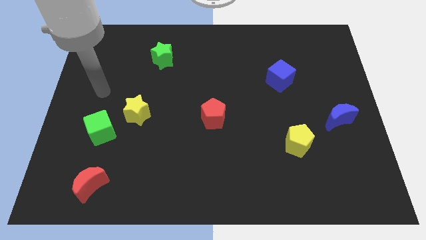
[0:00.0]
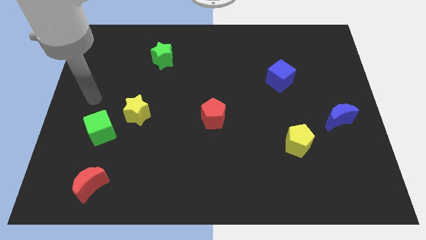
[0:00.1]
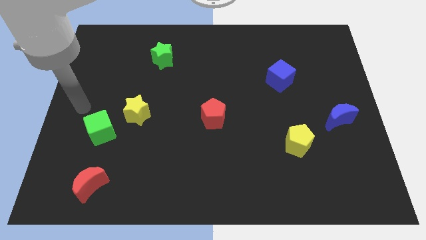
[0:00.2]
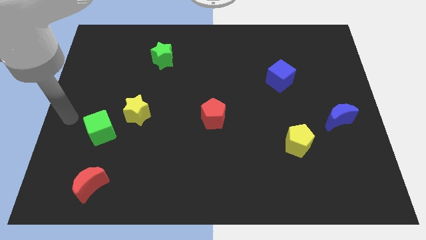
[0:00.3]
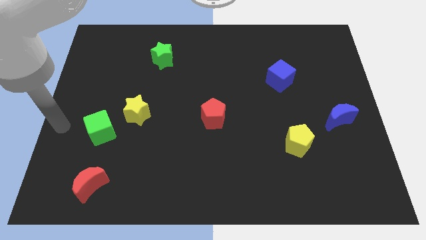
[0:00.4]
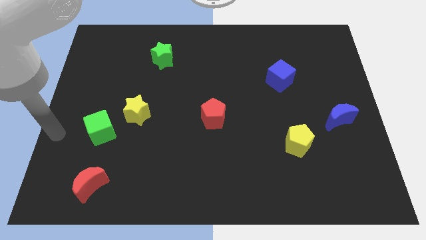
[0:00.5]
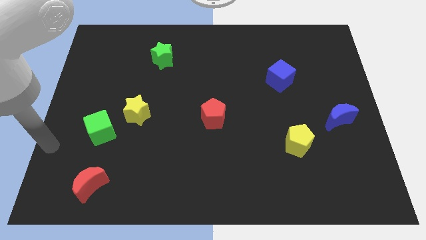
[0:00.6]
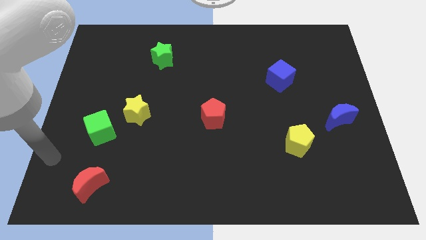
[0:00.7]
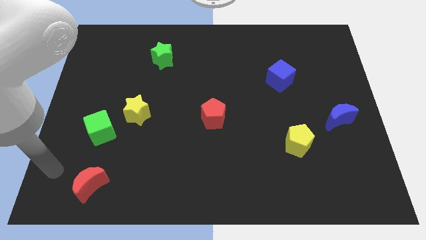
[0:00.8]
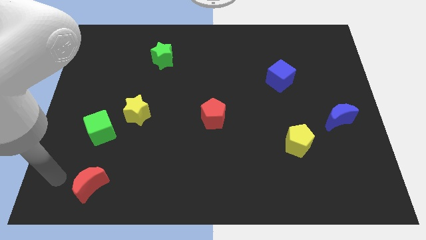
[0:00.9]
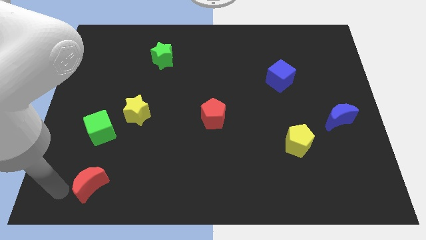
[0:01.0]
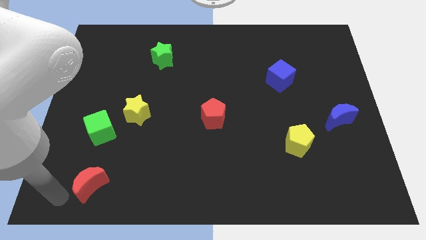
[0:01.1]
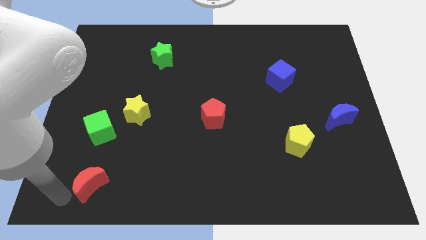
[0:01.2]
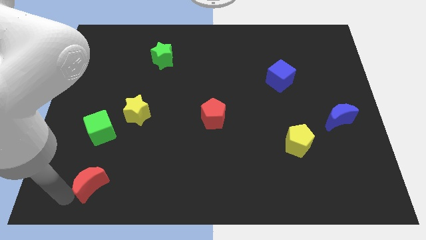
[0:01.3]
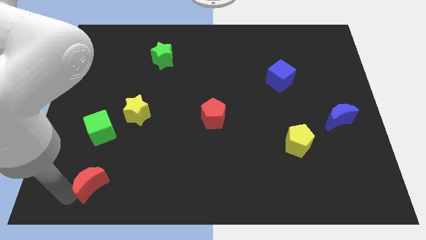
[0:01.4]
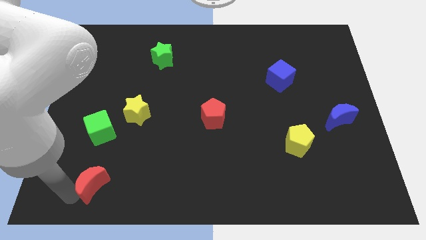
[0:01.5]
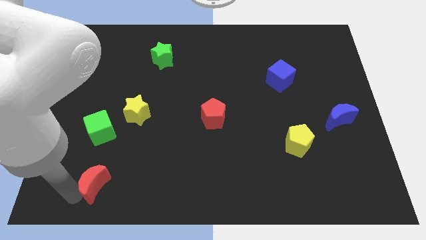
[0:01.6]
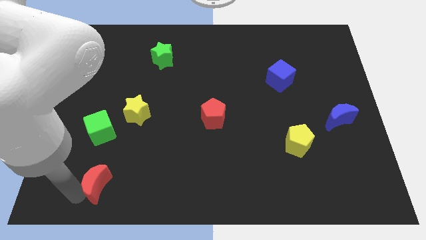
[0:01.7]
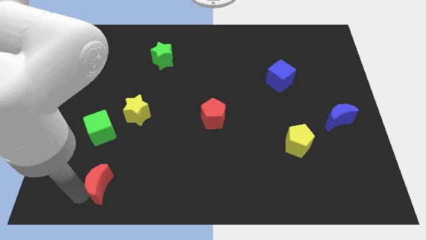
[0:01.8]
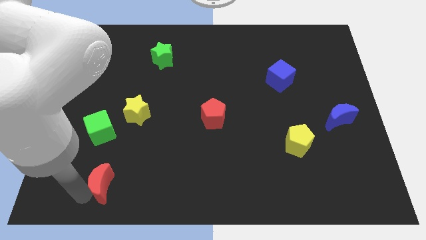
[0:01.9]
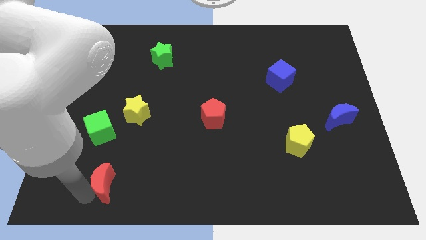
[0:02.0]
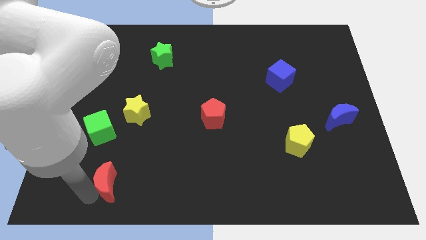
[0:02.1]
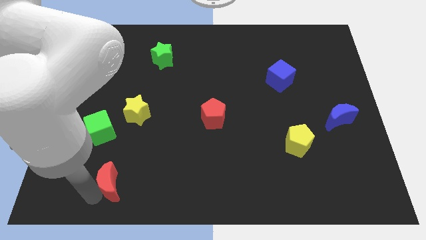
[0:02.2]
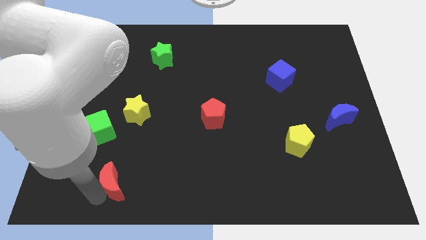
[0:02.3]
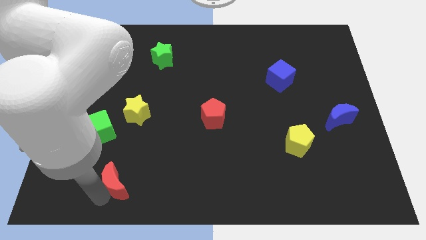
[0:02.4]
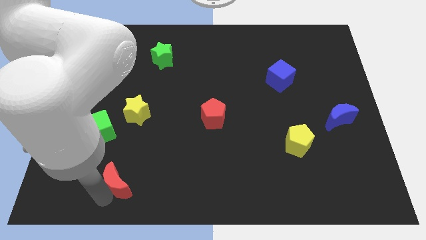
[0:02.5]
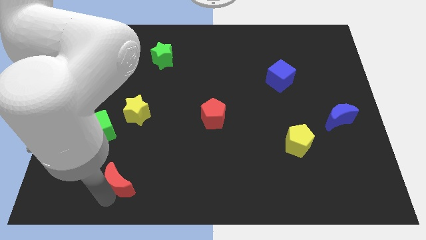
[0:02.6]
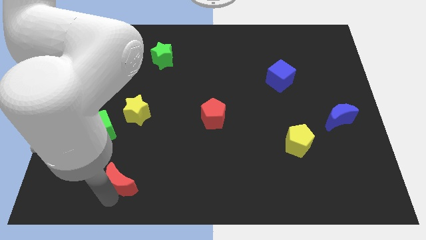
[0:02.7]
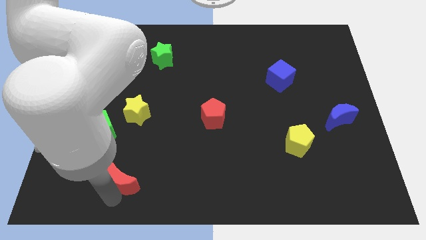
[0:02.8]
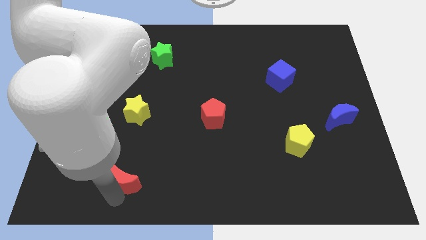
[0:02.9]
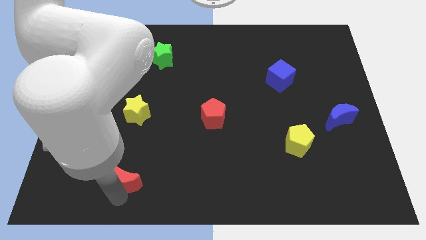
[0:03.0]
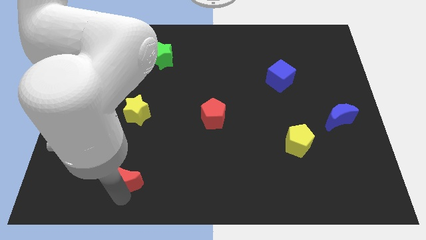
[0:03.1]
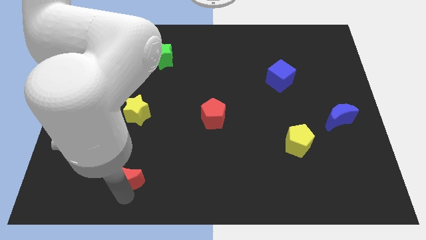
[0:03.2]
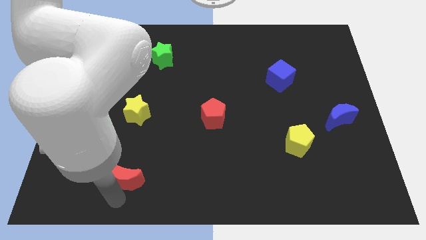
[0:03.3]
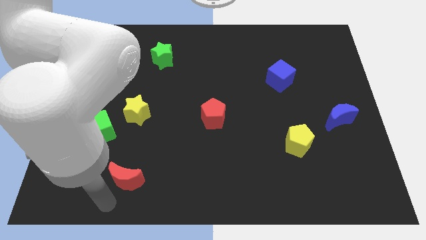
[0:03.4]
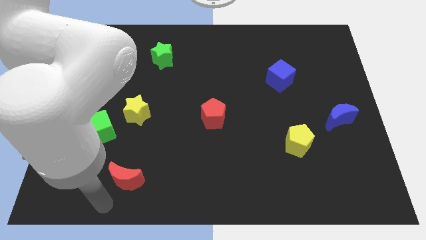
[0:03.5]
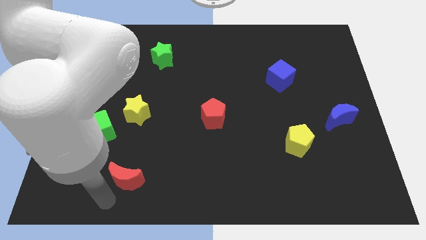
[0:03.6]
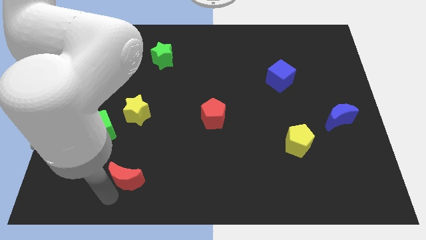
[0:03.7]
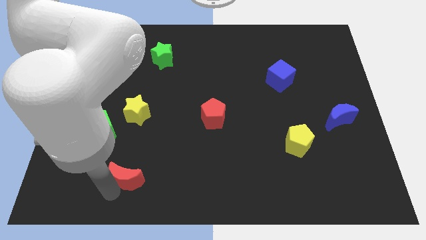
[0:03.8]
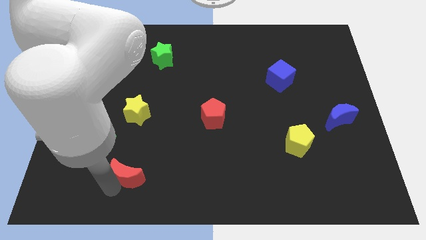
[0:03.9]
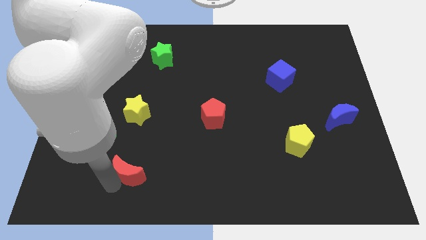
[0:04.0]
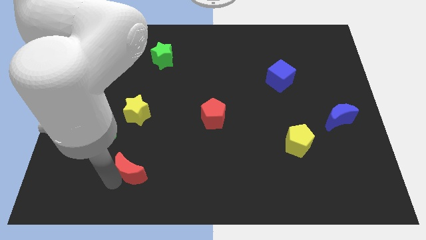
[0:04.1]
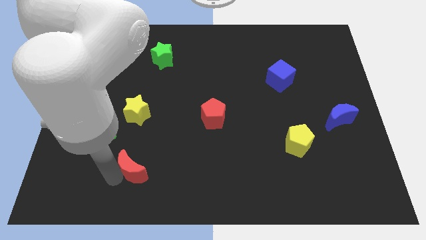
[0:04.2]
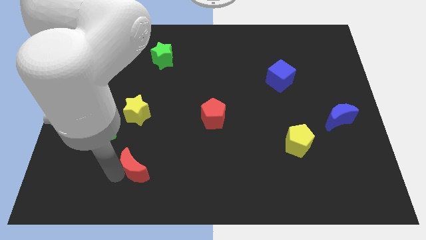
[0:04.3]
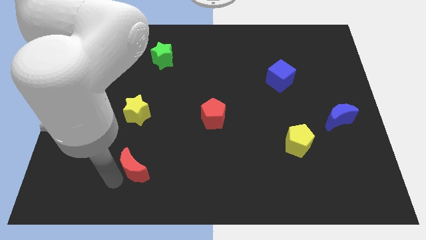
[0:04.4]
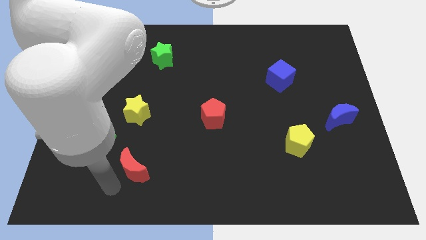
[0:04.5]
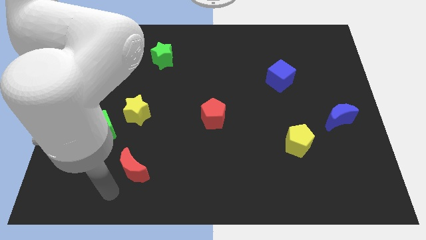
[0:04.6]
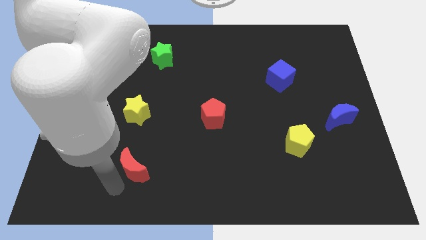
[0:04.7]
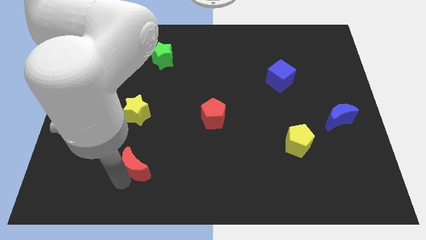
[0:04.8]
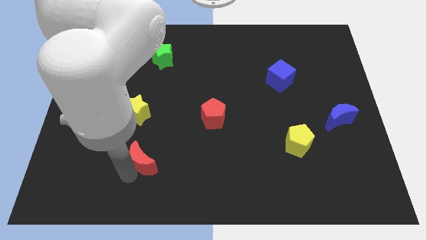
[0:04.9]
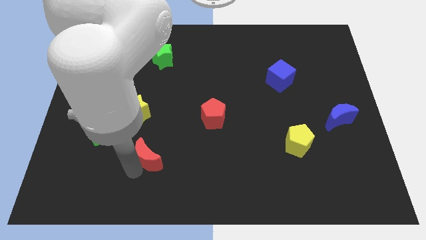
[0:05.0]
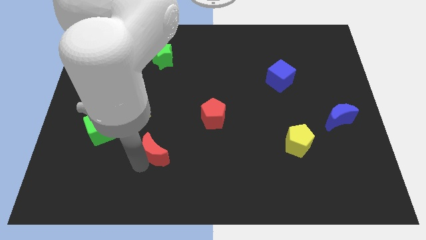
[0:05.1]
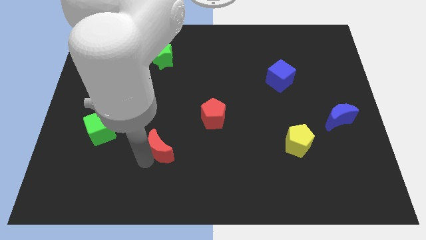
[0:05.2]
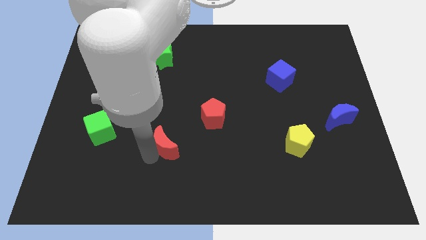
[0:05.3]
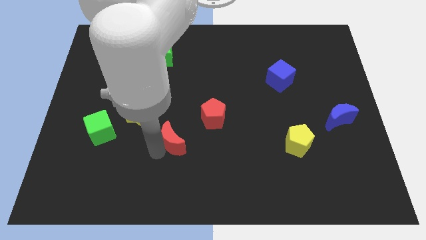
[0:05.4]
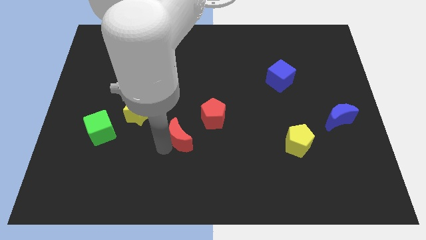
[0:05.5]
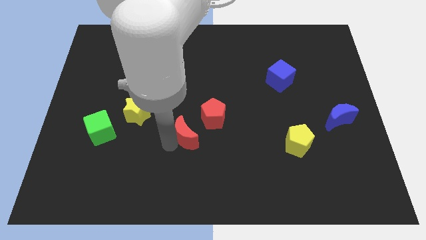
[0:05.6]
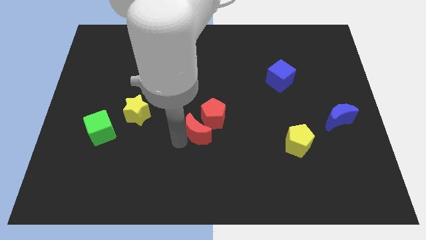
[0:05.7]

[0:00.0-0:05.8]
move the red moon to the red pentagon

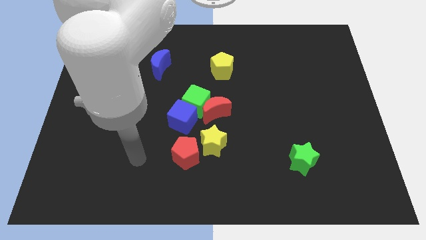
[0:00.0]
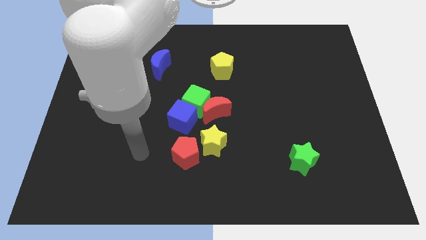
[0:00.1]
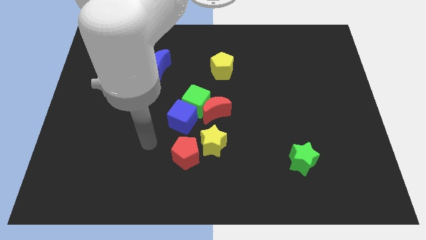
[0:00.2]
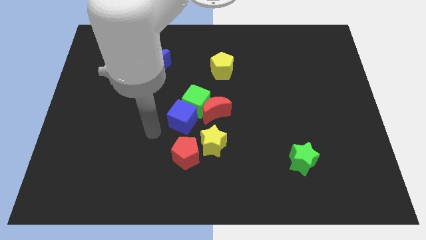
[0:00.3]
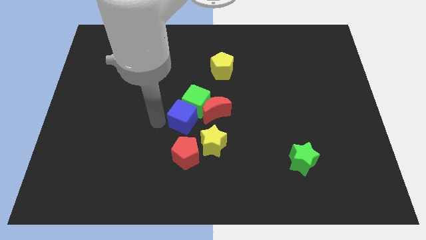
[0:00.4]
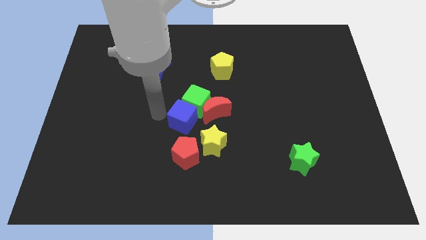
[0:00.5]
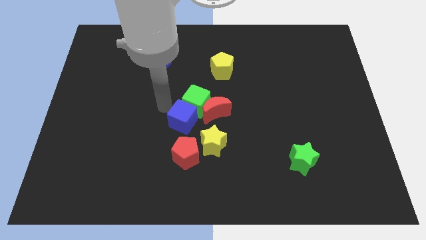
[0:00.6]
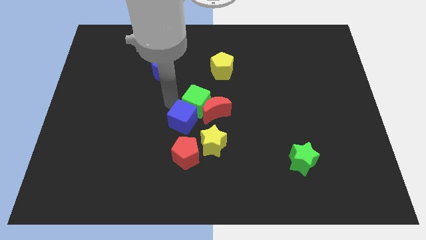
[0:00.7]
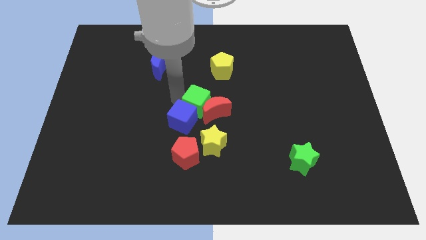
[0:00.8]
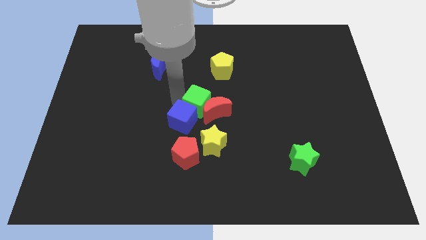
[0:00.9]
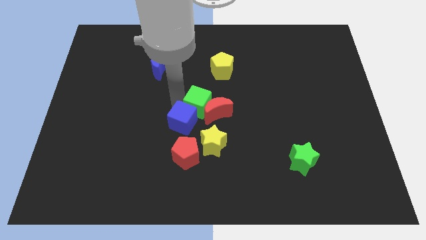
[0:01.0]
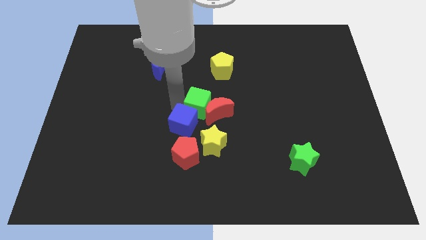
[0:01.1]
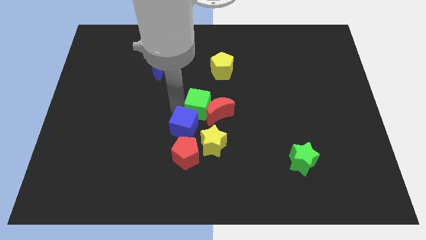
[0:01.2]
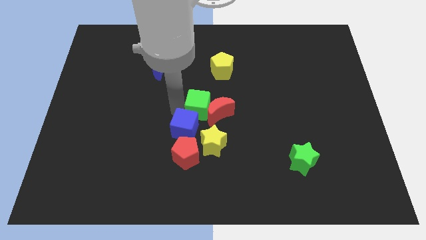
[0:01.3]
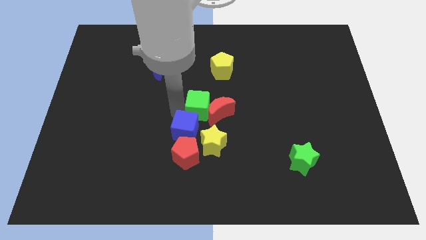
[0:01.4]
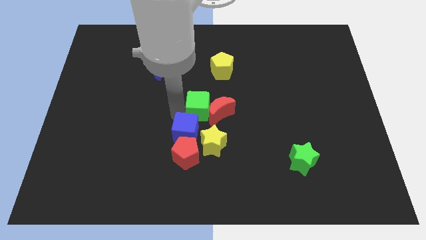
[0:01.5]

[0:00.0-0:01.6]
slide the blue cube close to the red pentagon

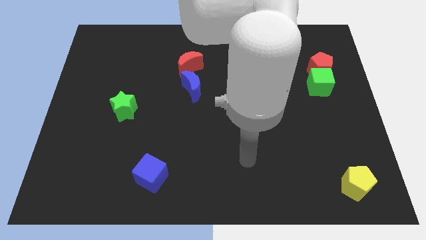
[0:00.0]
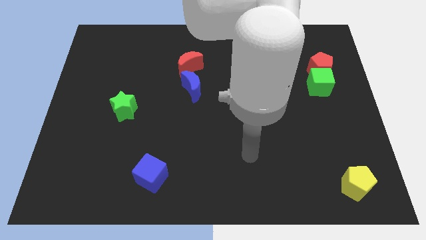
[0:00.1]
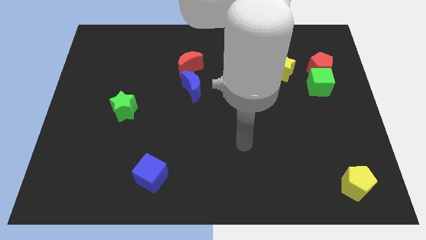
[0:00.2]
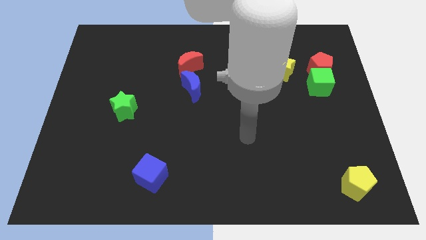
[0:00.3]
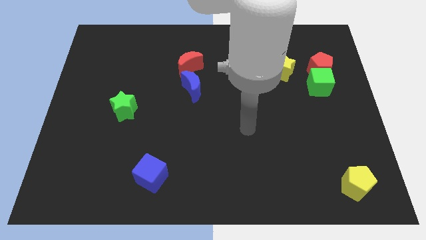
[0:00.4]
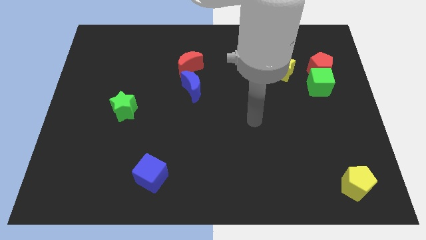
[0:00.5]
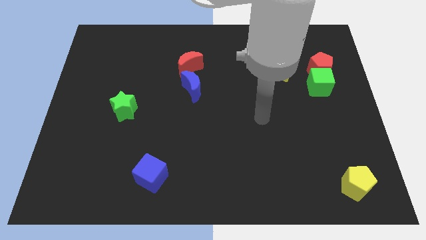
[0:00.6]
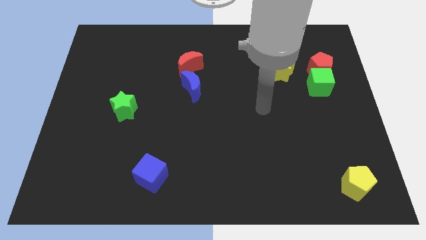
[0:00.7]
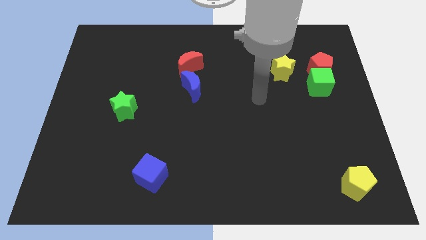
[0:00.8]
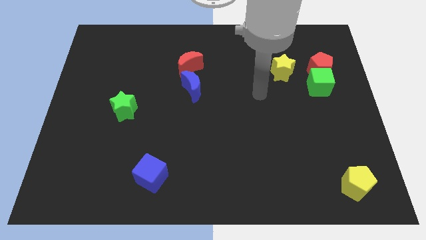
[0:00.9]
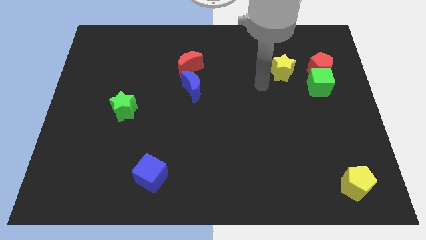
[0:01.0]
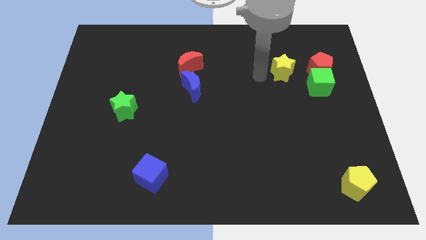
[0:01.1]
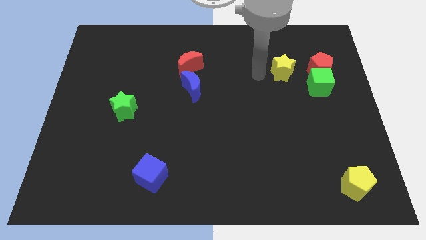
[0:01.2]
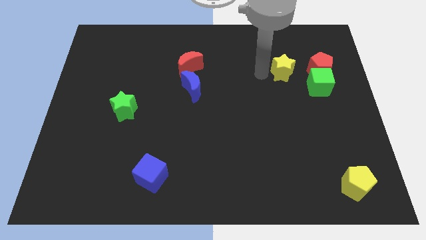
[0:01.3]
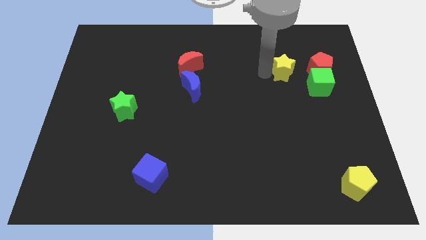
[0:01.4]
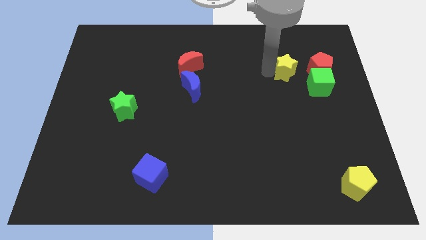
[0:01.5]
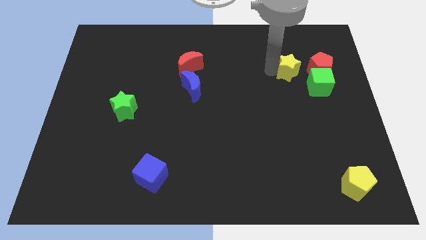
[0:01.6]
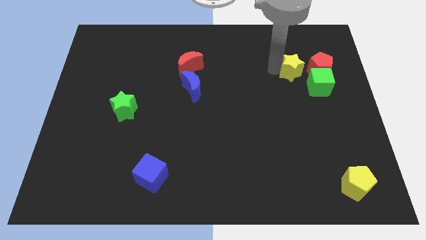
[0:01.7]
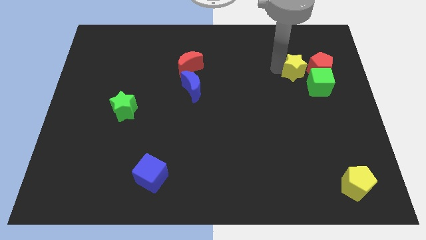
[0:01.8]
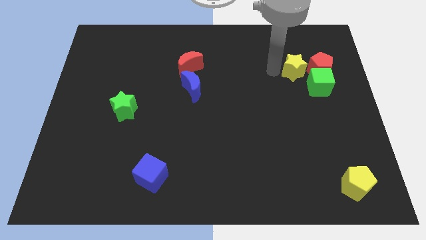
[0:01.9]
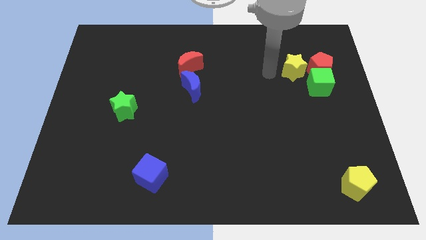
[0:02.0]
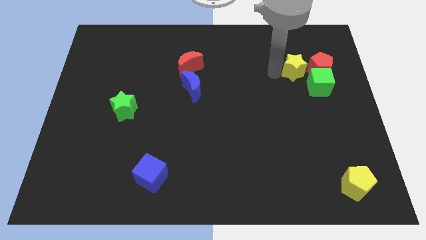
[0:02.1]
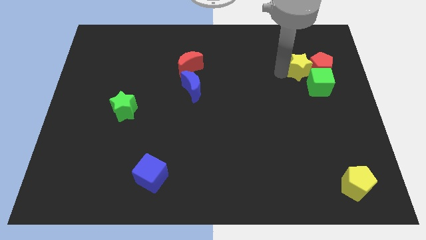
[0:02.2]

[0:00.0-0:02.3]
put the yellow star to the red pentagon
